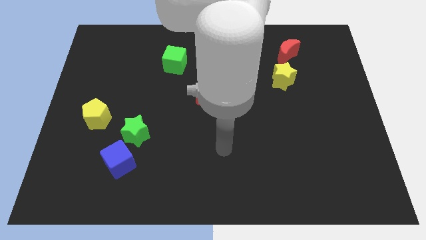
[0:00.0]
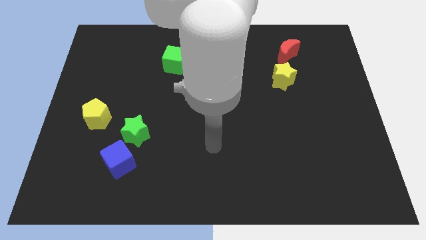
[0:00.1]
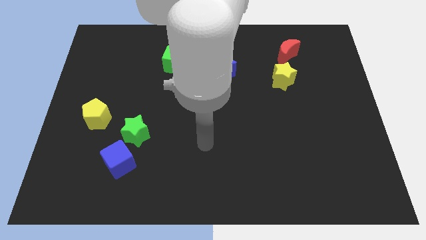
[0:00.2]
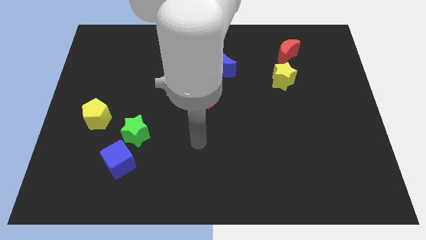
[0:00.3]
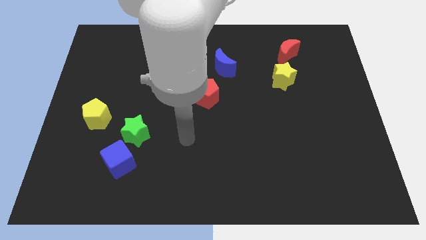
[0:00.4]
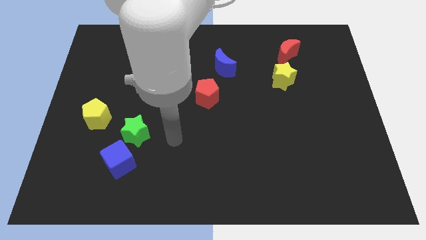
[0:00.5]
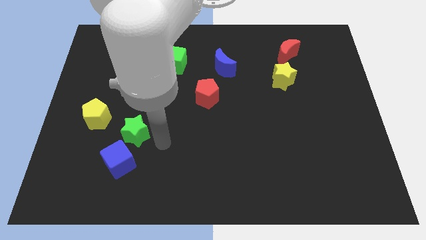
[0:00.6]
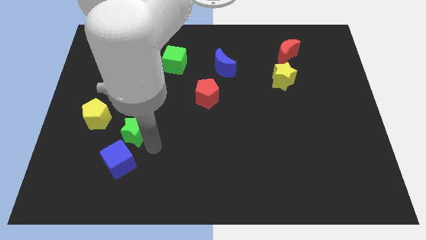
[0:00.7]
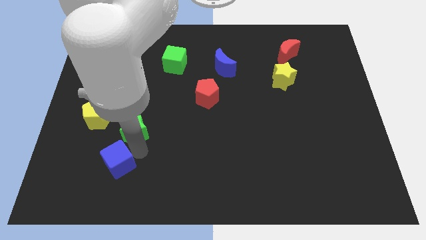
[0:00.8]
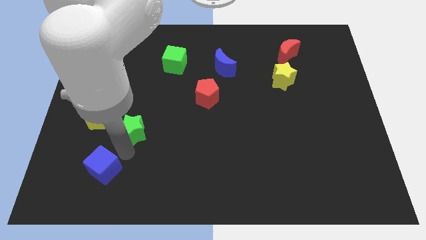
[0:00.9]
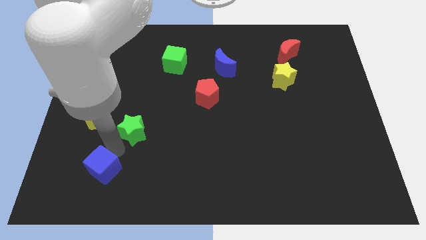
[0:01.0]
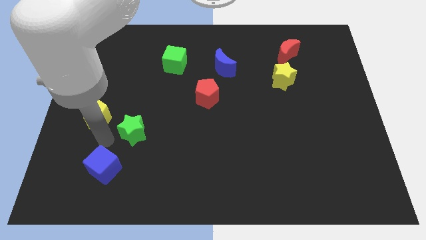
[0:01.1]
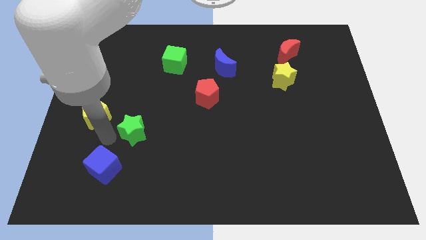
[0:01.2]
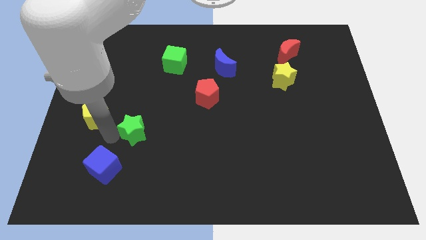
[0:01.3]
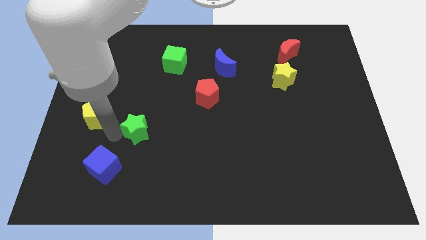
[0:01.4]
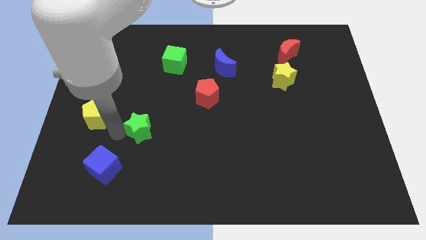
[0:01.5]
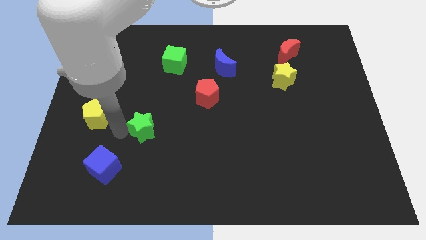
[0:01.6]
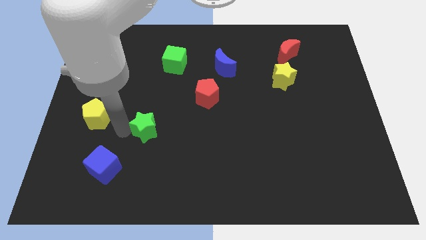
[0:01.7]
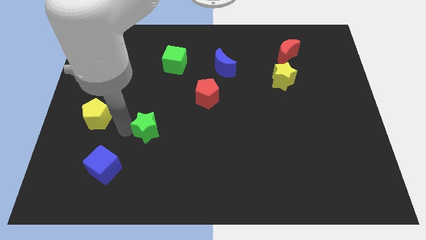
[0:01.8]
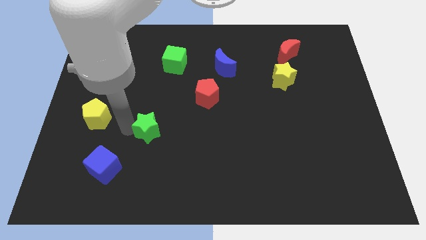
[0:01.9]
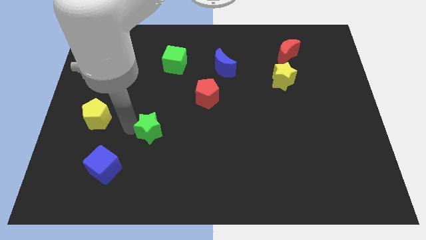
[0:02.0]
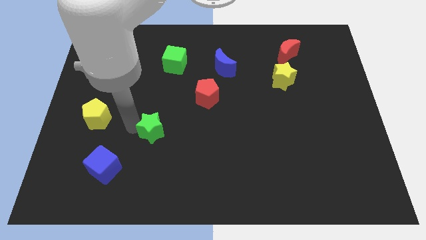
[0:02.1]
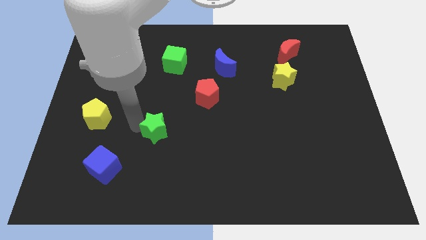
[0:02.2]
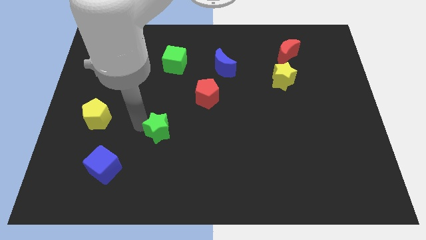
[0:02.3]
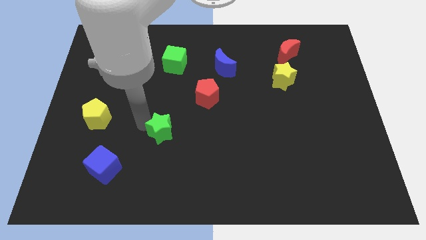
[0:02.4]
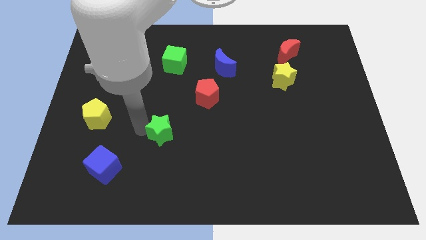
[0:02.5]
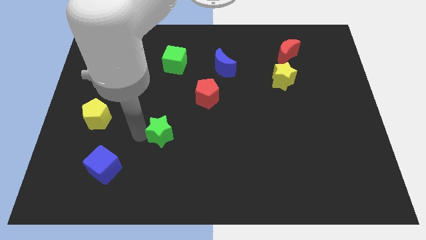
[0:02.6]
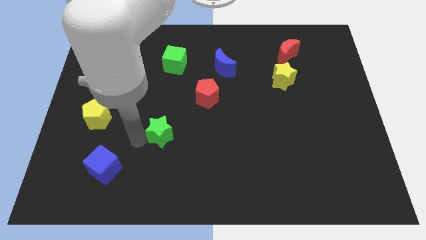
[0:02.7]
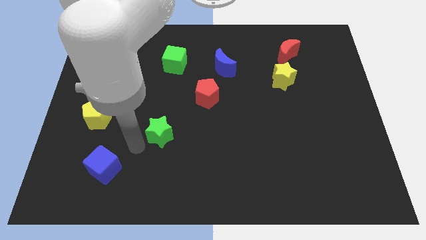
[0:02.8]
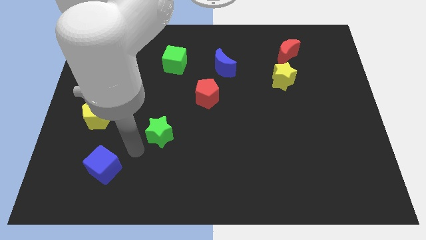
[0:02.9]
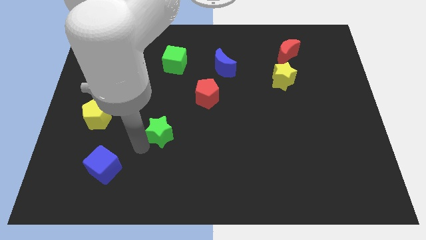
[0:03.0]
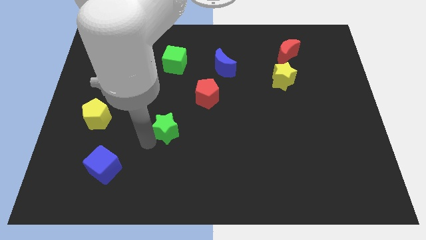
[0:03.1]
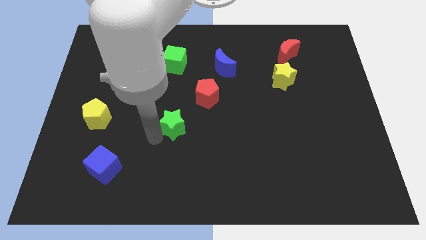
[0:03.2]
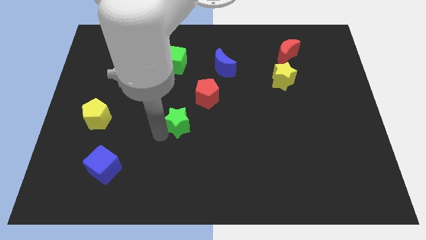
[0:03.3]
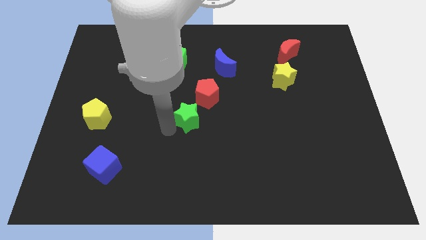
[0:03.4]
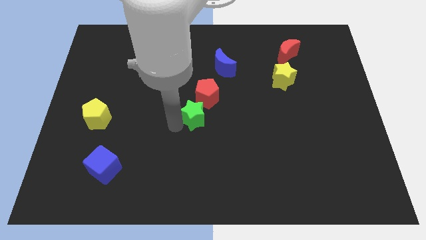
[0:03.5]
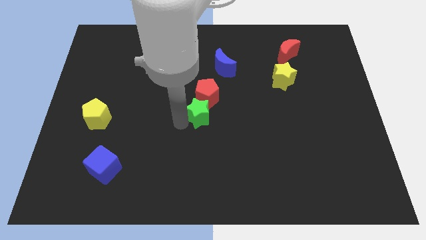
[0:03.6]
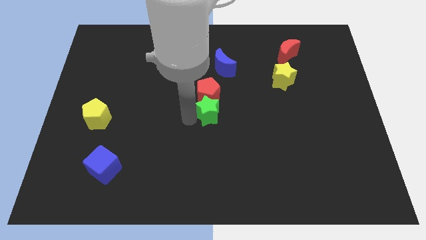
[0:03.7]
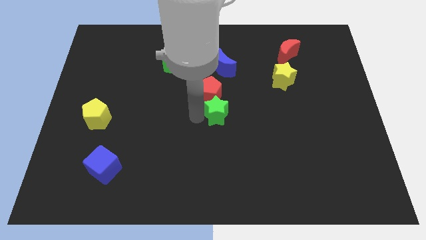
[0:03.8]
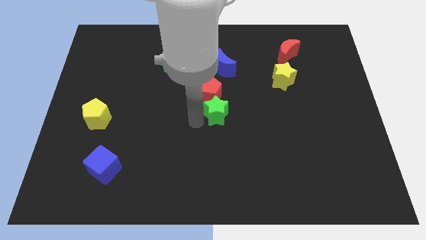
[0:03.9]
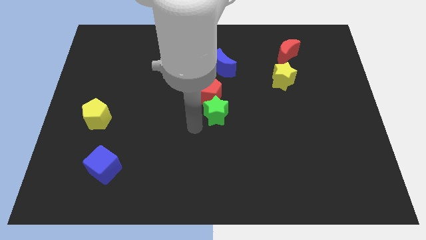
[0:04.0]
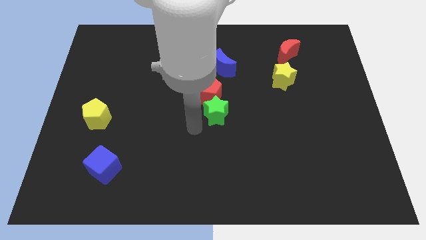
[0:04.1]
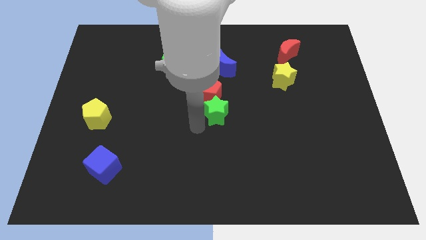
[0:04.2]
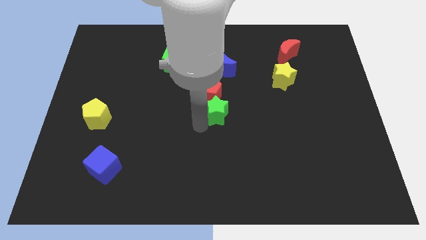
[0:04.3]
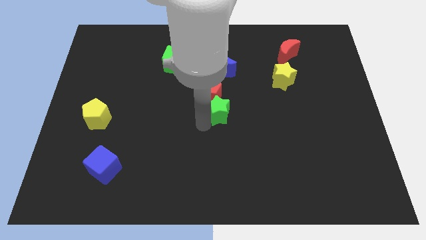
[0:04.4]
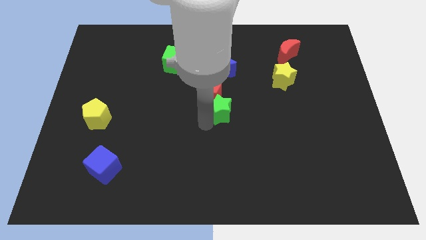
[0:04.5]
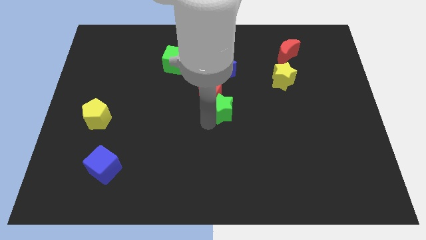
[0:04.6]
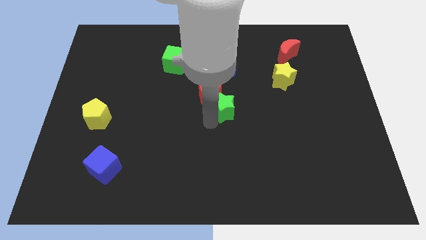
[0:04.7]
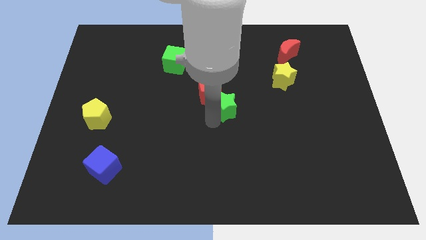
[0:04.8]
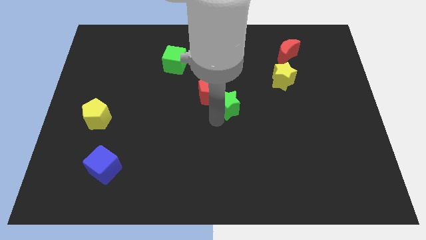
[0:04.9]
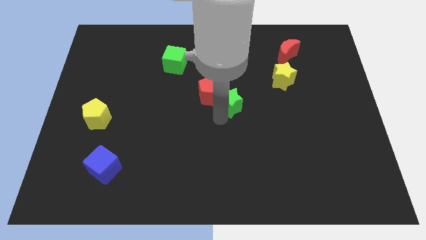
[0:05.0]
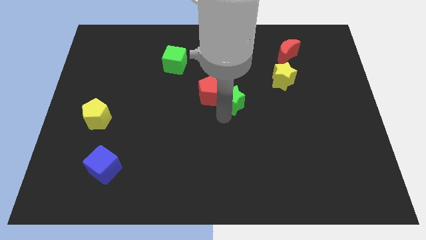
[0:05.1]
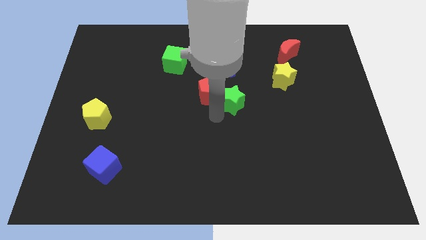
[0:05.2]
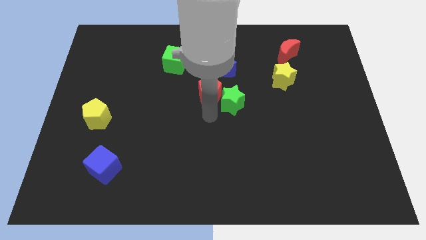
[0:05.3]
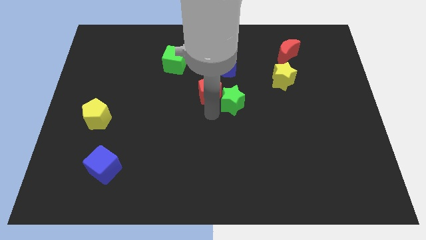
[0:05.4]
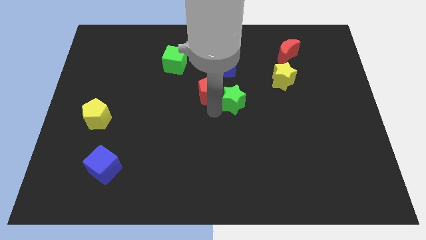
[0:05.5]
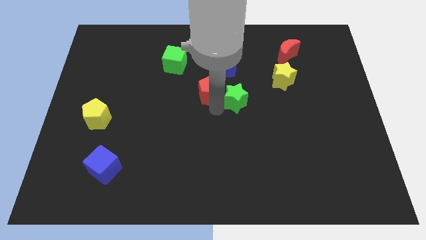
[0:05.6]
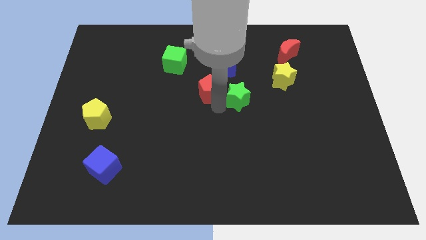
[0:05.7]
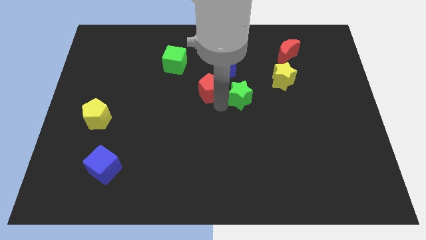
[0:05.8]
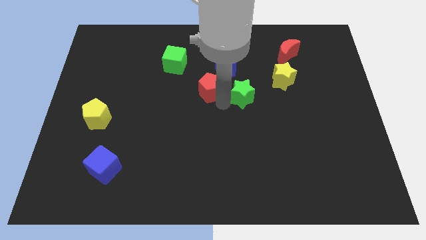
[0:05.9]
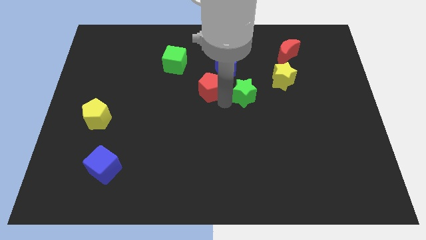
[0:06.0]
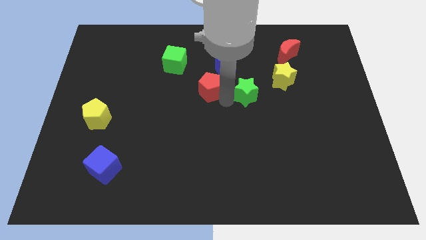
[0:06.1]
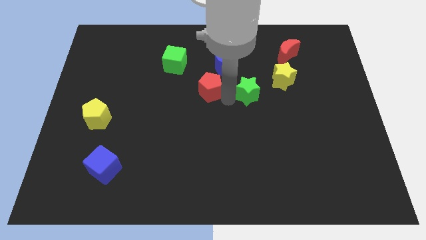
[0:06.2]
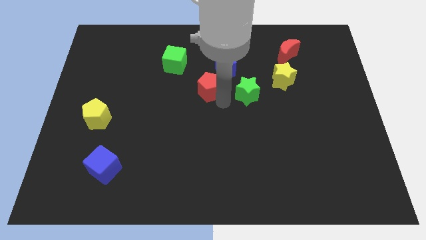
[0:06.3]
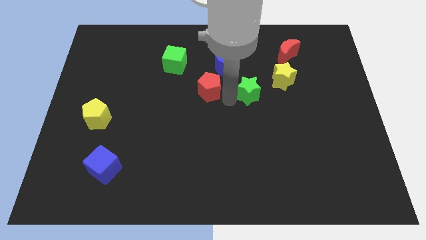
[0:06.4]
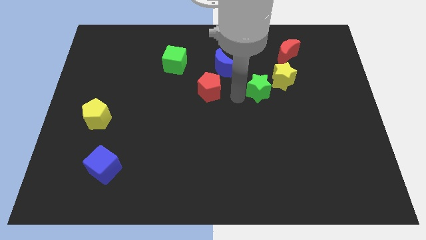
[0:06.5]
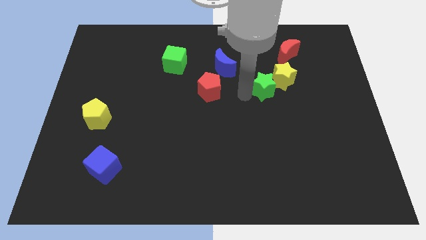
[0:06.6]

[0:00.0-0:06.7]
push the green star close to the yellow star
